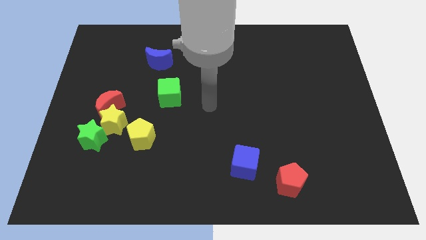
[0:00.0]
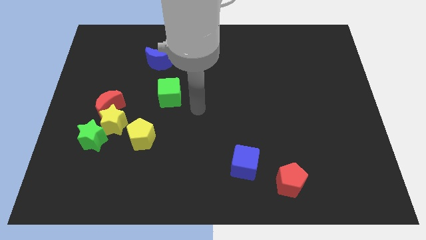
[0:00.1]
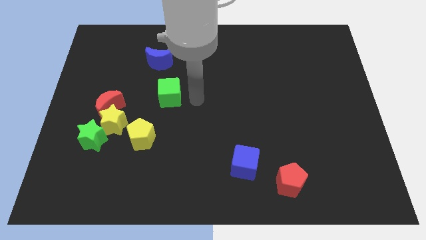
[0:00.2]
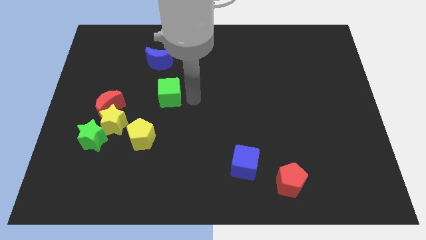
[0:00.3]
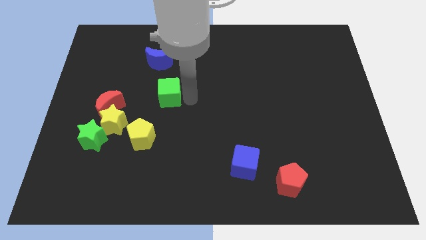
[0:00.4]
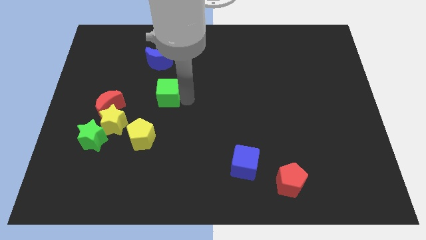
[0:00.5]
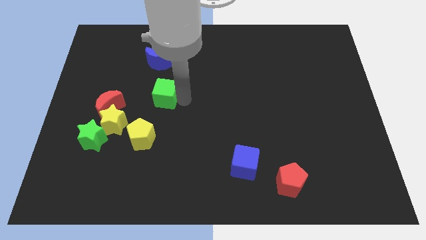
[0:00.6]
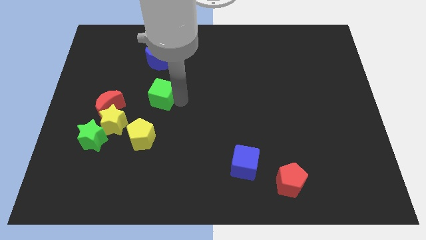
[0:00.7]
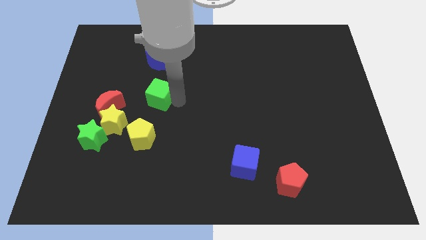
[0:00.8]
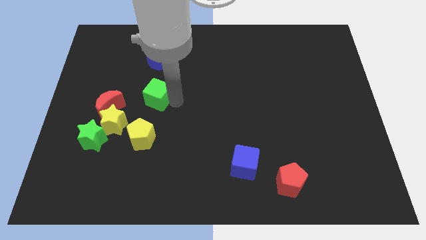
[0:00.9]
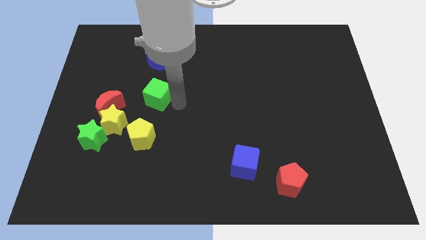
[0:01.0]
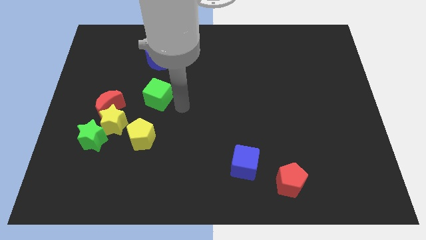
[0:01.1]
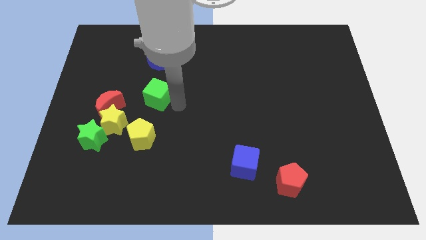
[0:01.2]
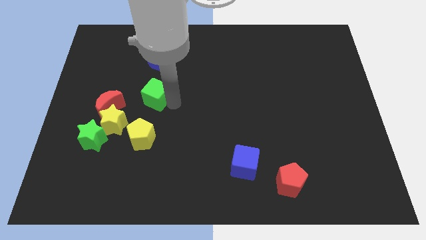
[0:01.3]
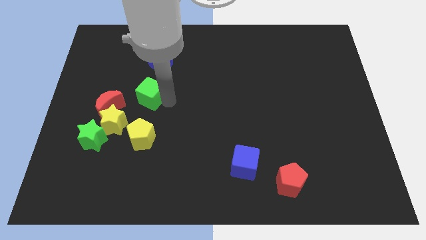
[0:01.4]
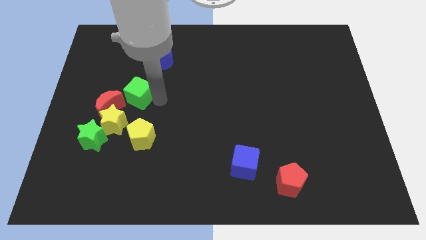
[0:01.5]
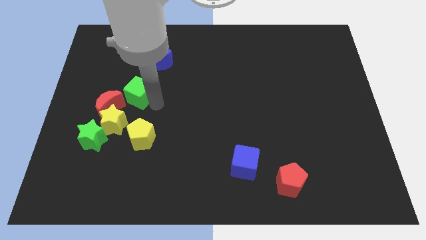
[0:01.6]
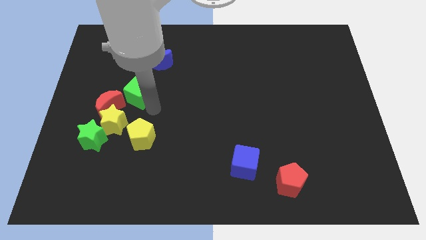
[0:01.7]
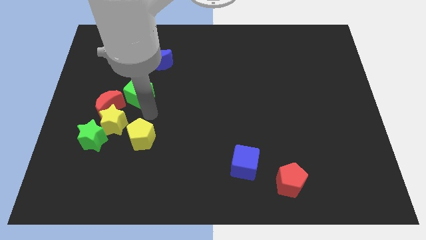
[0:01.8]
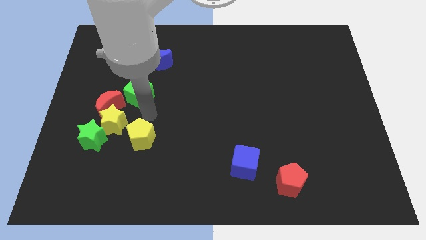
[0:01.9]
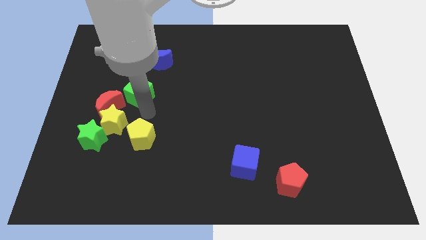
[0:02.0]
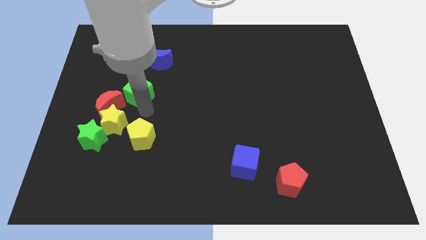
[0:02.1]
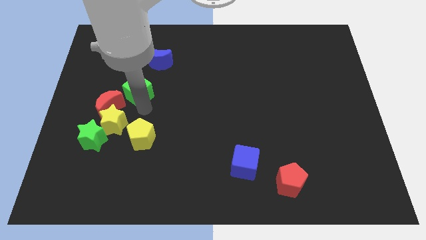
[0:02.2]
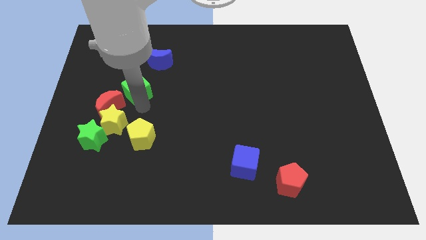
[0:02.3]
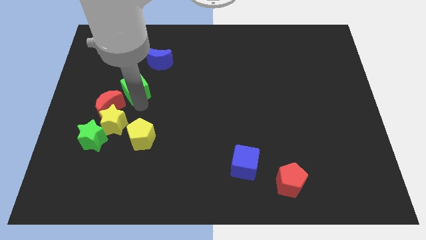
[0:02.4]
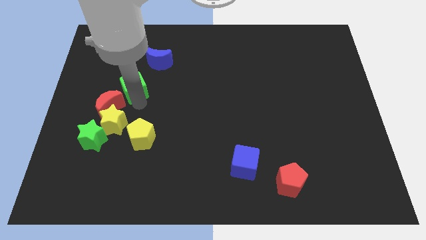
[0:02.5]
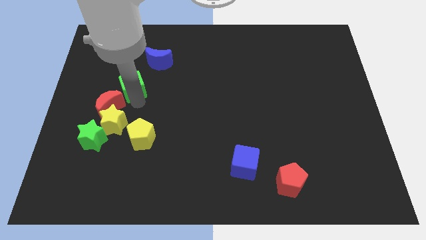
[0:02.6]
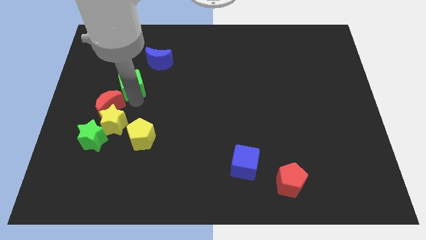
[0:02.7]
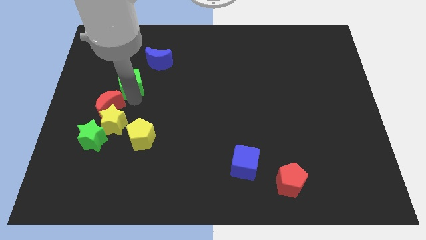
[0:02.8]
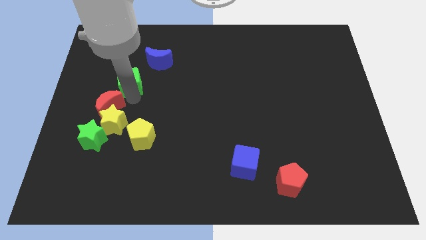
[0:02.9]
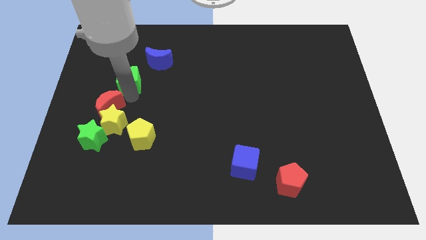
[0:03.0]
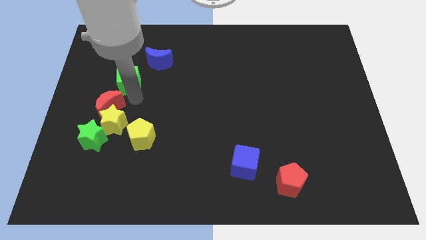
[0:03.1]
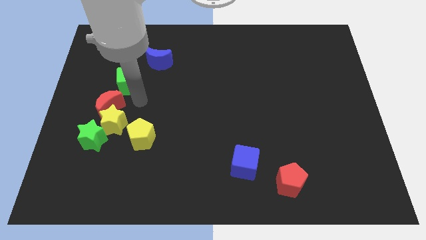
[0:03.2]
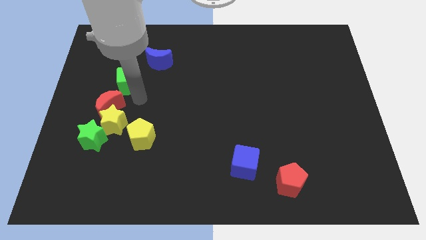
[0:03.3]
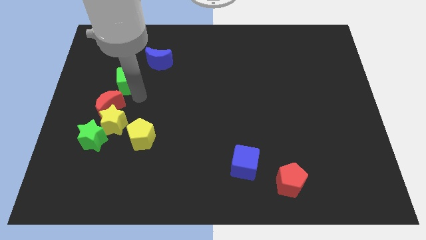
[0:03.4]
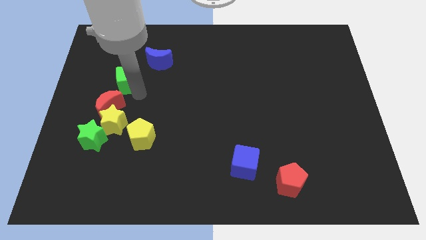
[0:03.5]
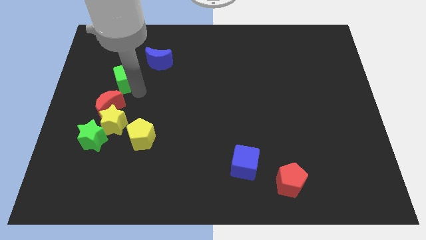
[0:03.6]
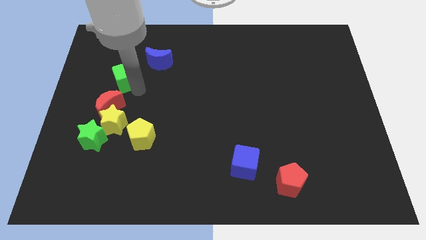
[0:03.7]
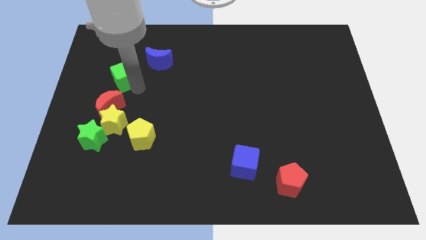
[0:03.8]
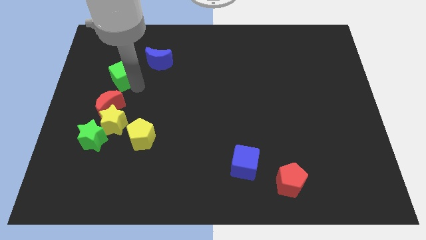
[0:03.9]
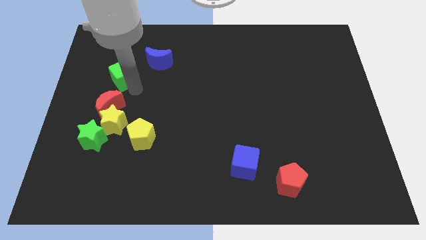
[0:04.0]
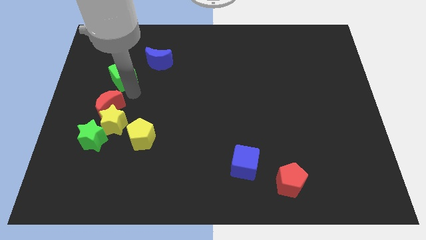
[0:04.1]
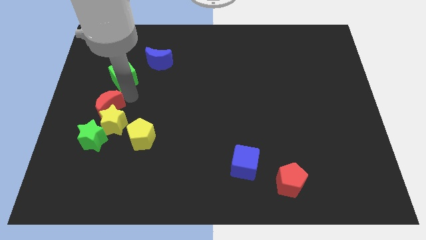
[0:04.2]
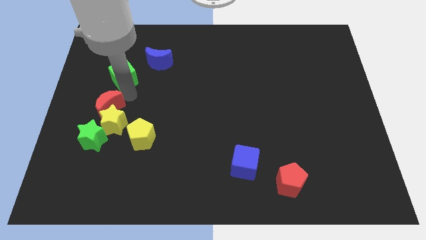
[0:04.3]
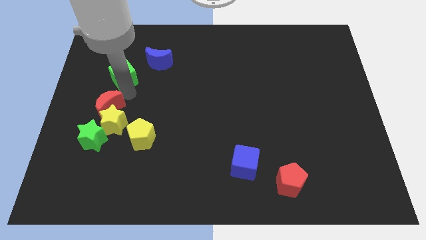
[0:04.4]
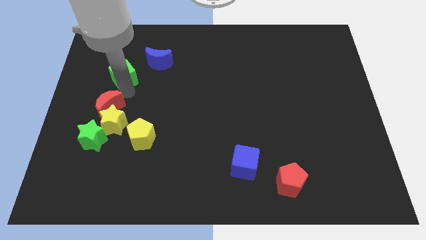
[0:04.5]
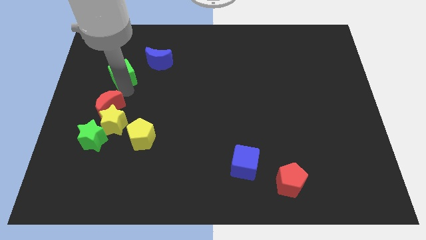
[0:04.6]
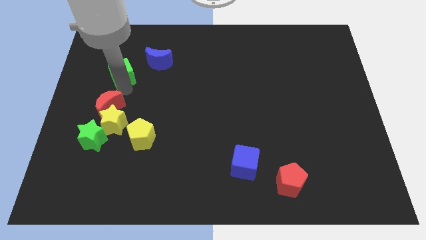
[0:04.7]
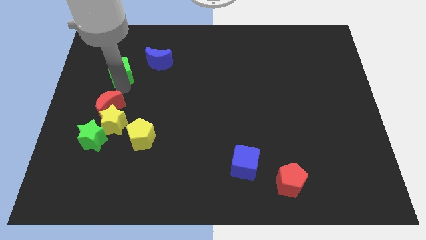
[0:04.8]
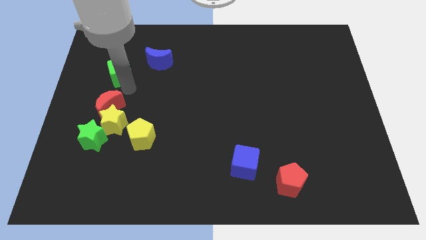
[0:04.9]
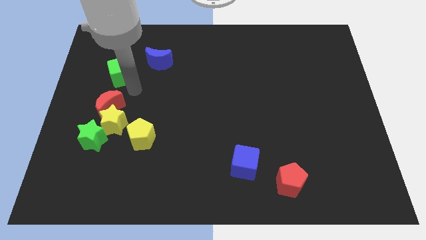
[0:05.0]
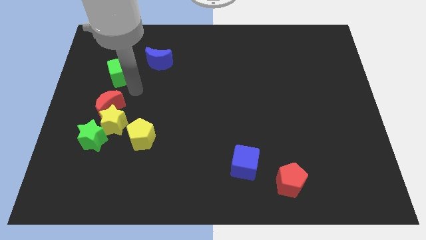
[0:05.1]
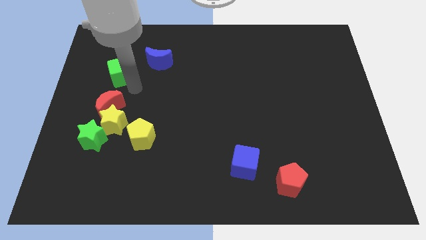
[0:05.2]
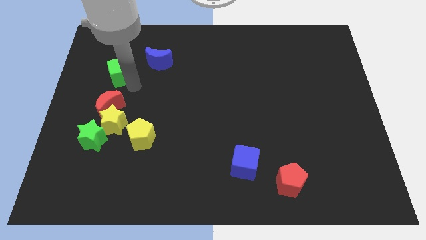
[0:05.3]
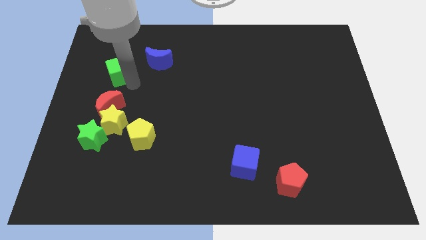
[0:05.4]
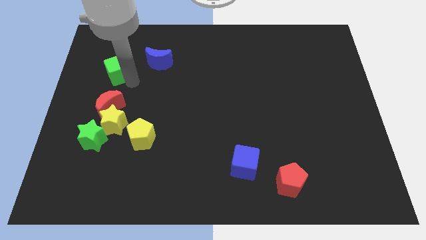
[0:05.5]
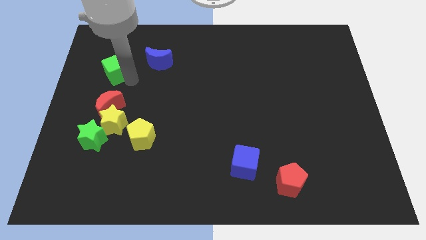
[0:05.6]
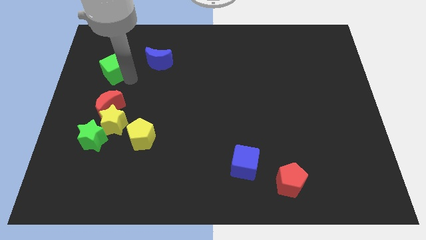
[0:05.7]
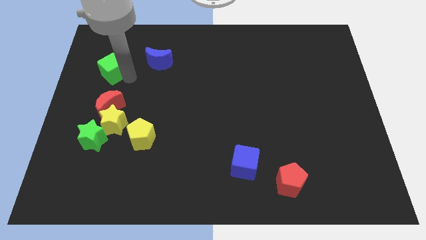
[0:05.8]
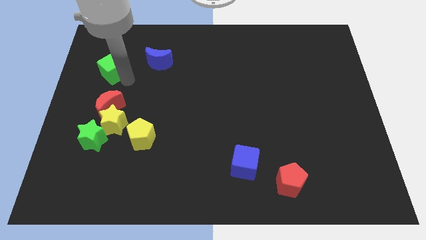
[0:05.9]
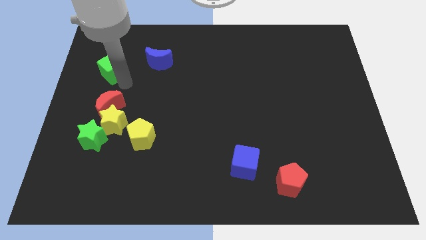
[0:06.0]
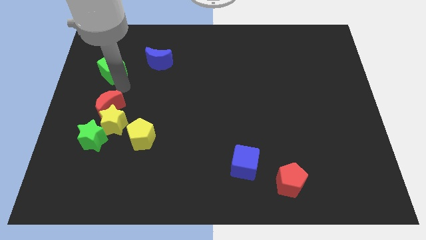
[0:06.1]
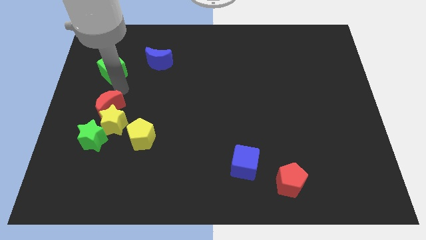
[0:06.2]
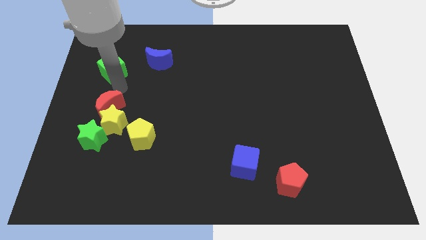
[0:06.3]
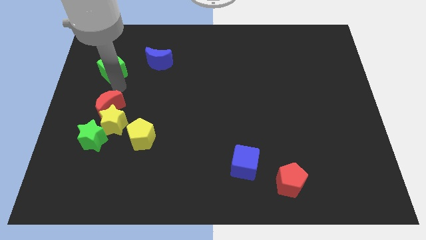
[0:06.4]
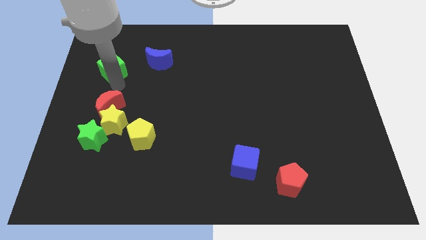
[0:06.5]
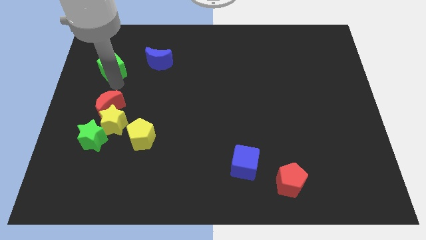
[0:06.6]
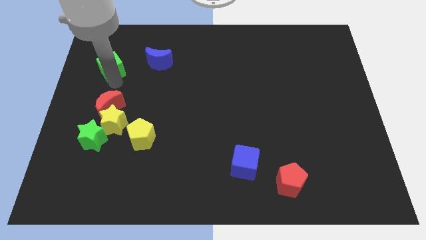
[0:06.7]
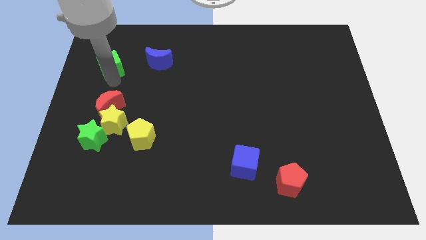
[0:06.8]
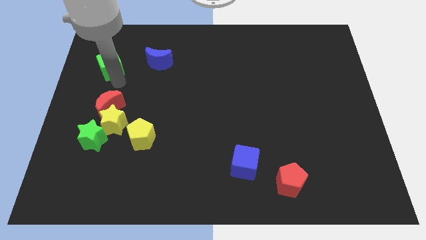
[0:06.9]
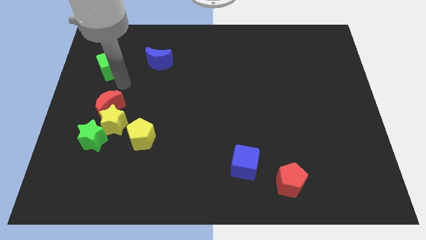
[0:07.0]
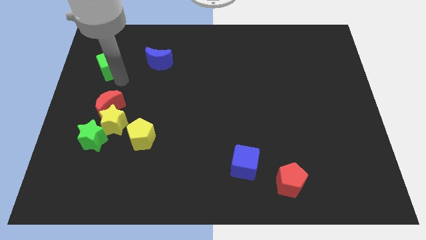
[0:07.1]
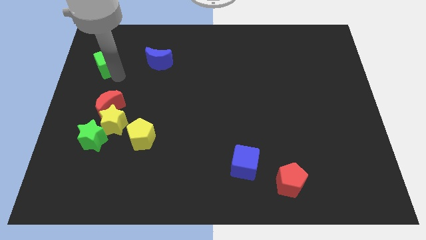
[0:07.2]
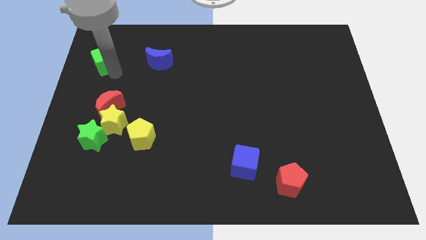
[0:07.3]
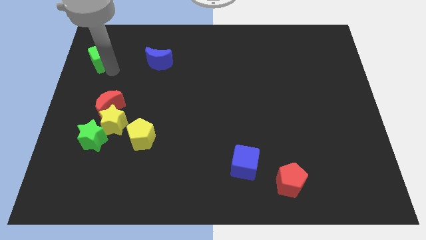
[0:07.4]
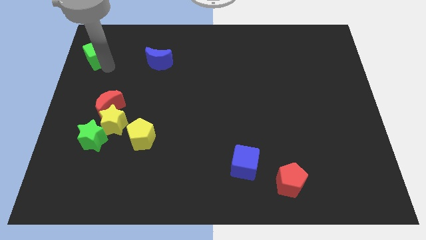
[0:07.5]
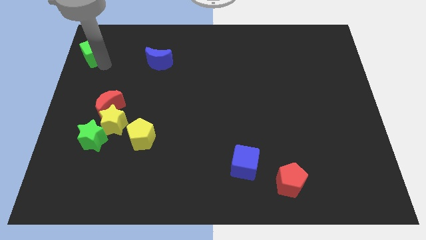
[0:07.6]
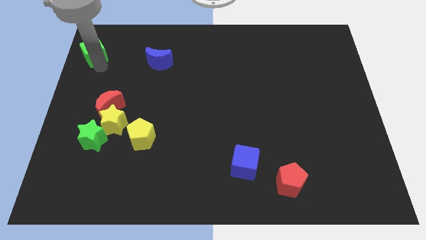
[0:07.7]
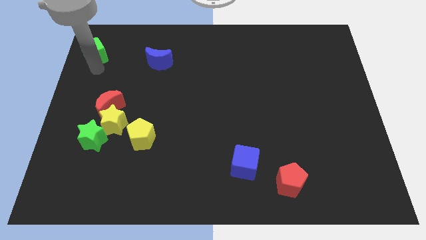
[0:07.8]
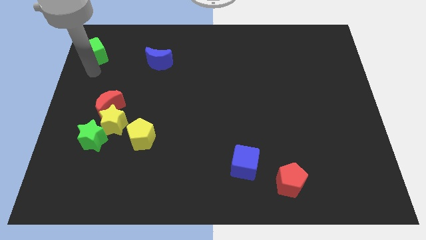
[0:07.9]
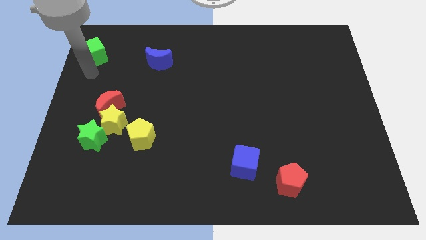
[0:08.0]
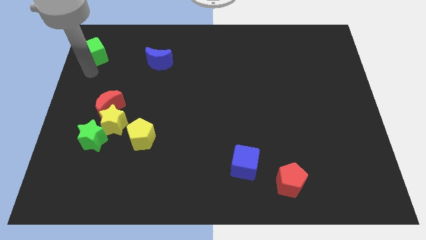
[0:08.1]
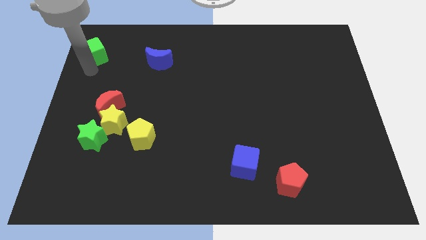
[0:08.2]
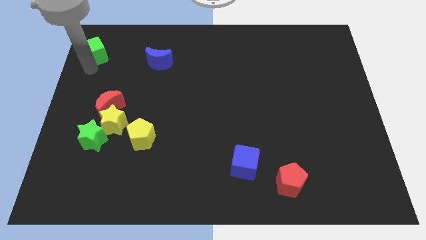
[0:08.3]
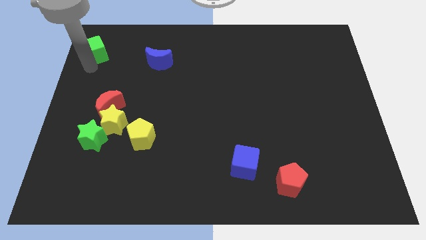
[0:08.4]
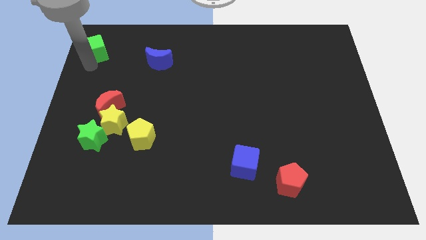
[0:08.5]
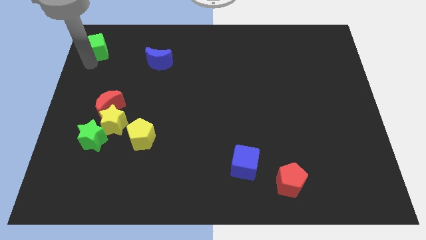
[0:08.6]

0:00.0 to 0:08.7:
slide the green cube to the top left of the board
